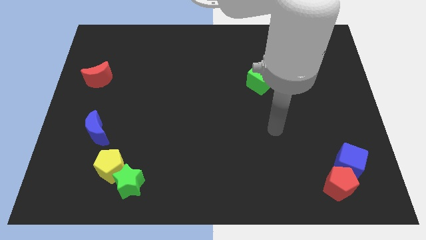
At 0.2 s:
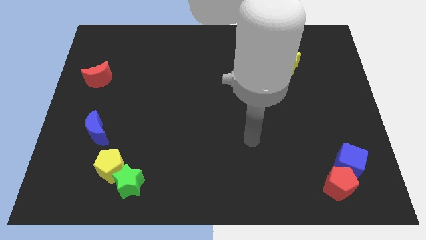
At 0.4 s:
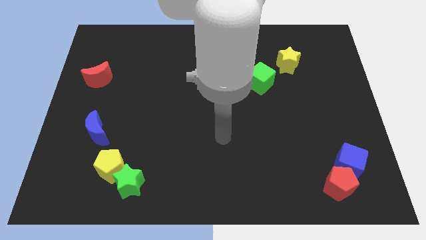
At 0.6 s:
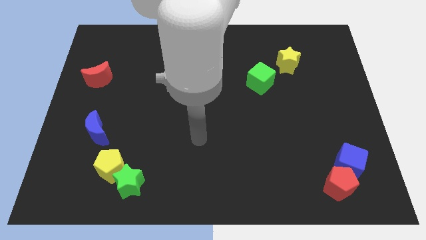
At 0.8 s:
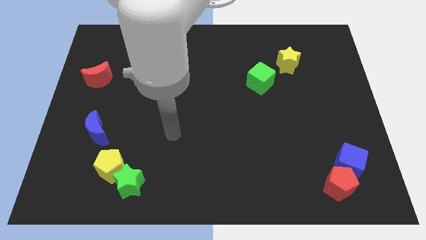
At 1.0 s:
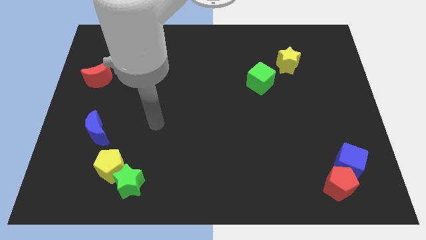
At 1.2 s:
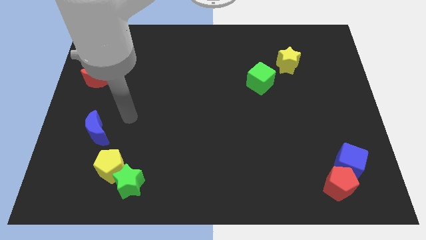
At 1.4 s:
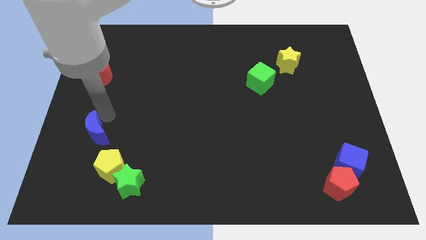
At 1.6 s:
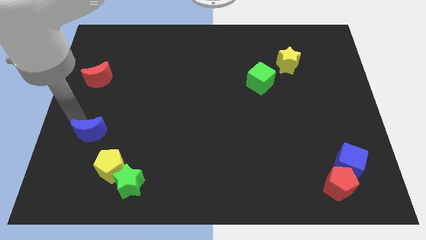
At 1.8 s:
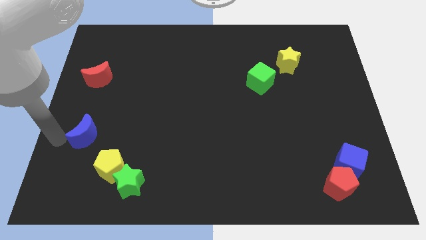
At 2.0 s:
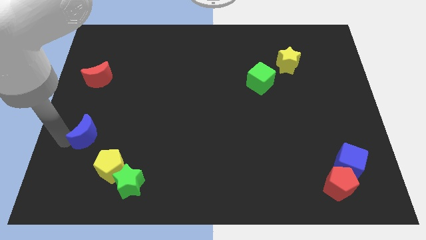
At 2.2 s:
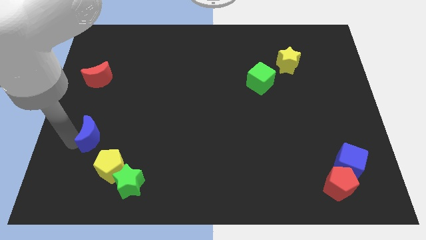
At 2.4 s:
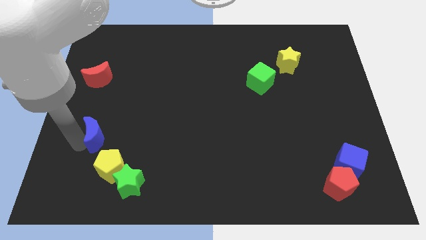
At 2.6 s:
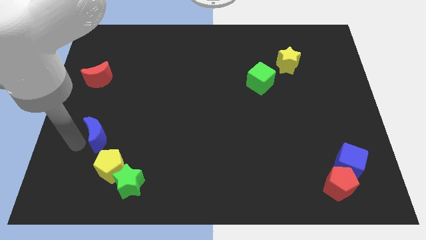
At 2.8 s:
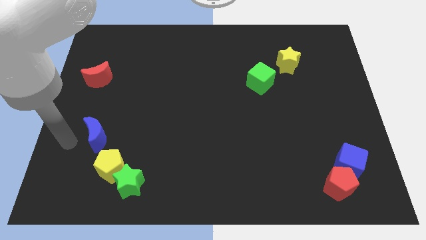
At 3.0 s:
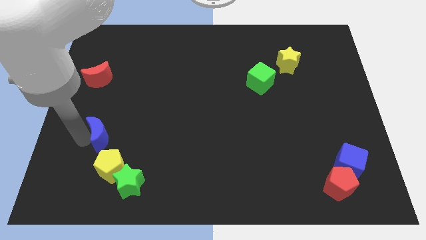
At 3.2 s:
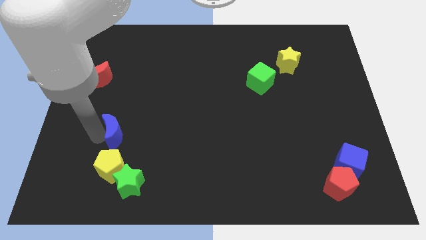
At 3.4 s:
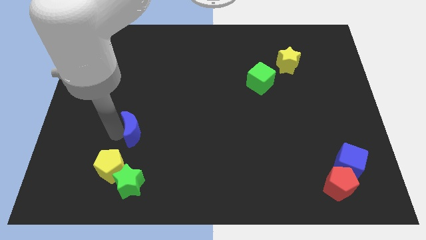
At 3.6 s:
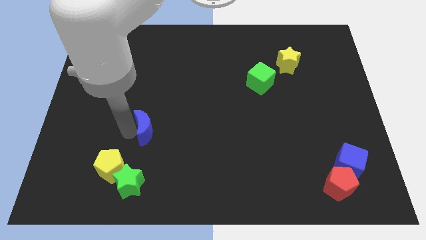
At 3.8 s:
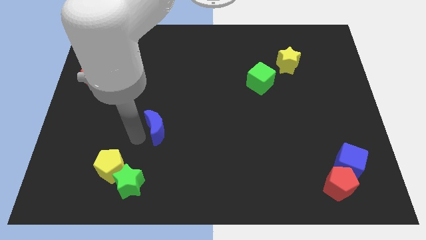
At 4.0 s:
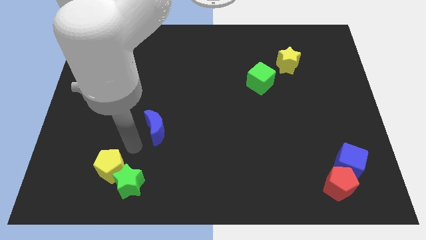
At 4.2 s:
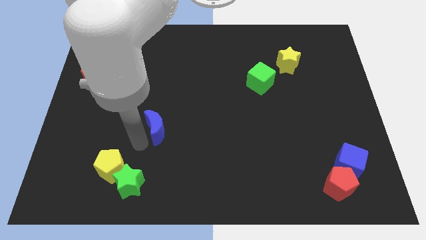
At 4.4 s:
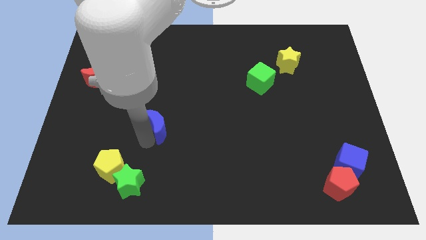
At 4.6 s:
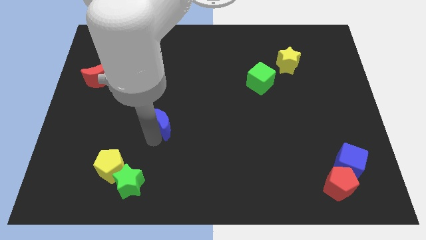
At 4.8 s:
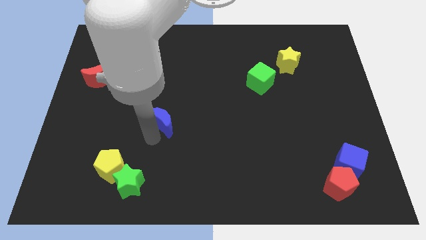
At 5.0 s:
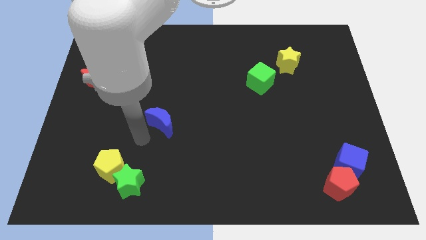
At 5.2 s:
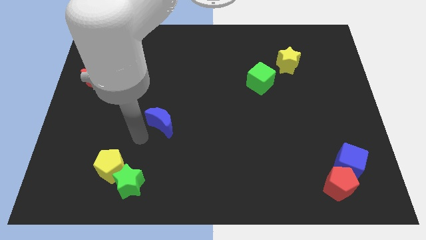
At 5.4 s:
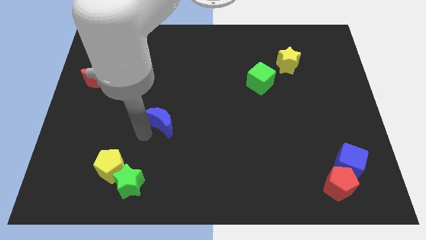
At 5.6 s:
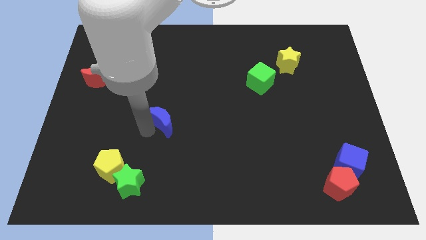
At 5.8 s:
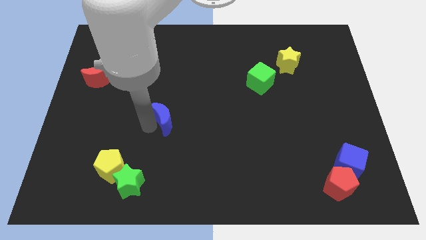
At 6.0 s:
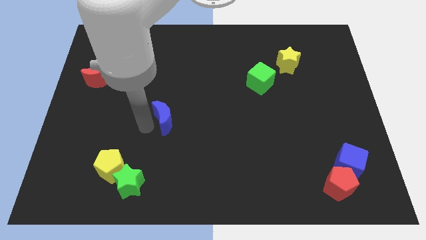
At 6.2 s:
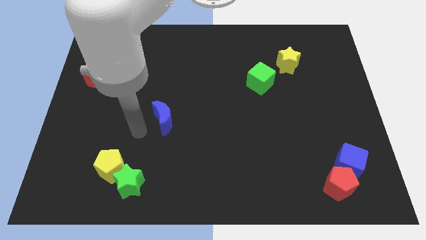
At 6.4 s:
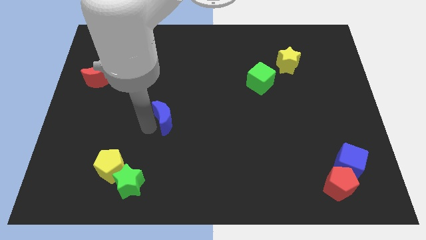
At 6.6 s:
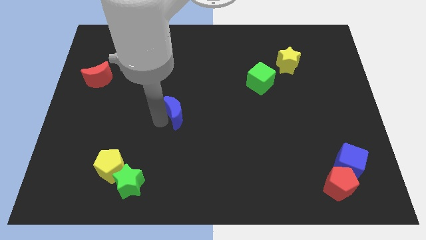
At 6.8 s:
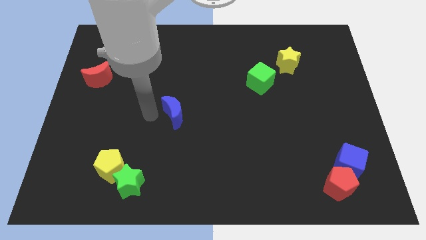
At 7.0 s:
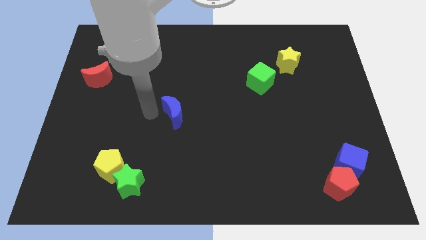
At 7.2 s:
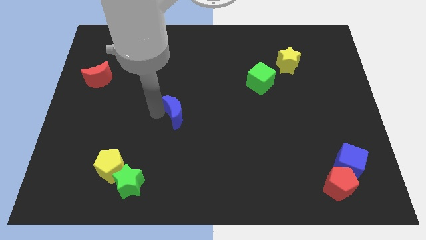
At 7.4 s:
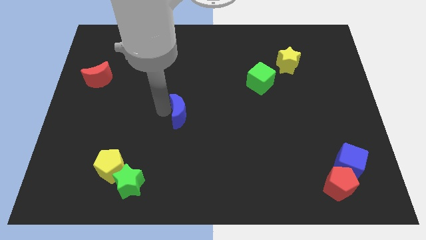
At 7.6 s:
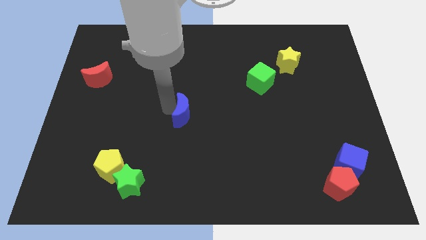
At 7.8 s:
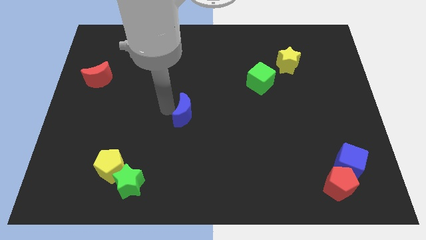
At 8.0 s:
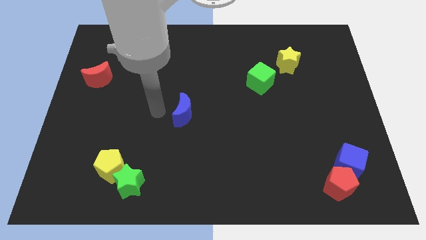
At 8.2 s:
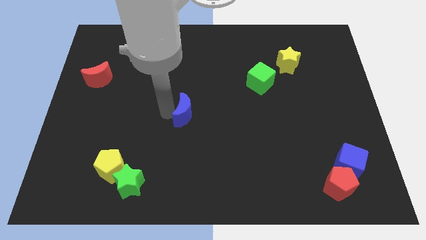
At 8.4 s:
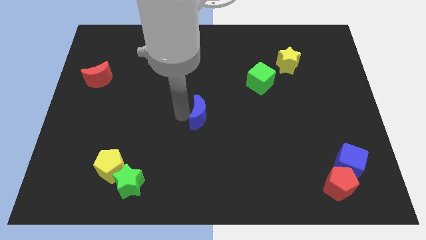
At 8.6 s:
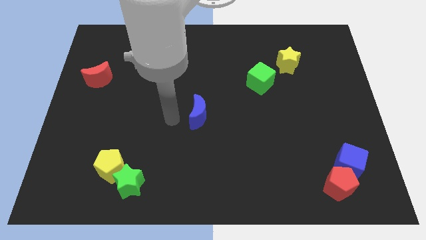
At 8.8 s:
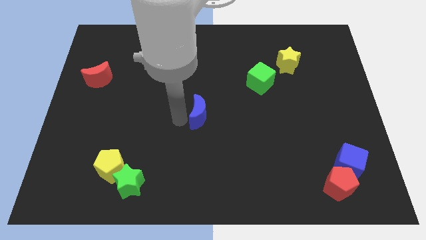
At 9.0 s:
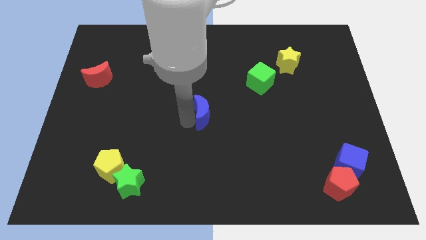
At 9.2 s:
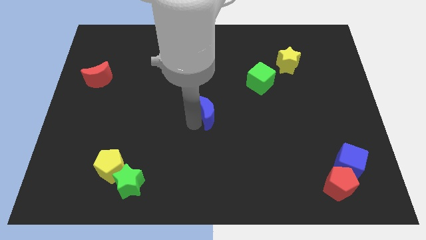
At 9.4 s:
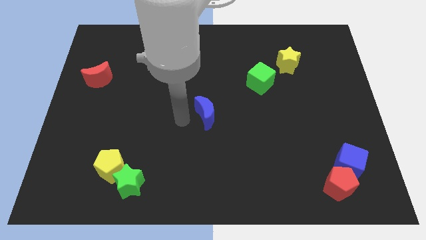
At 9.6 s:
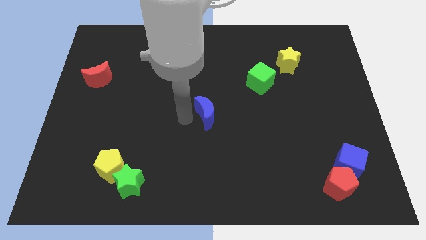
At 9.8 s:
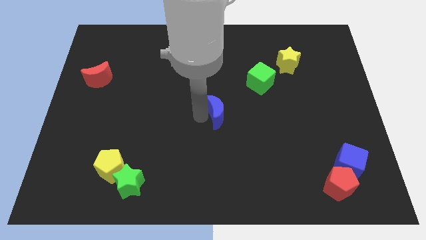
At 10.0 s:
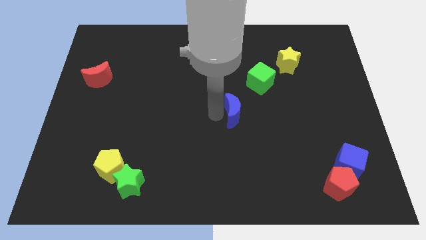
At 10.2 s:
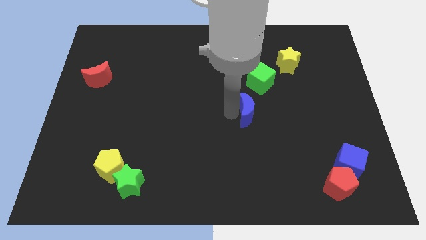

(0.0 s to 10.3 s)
slide the blue moon to the bottom side of the green cube

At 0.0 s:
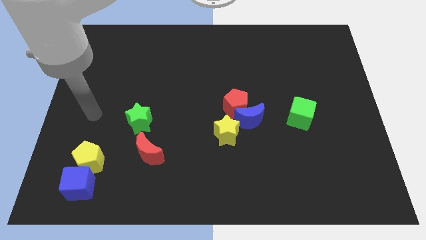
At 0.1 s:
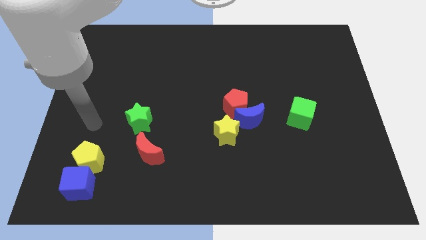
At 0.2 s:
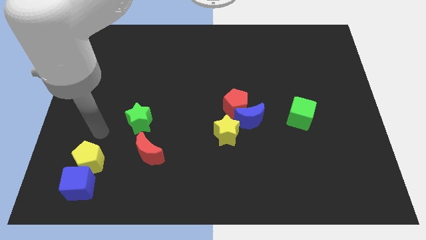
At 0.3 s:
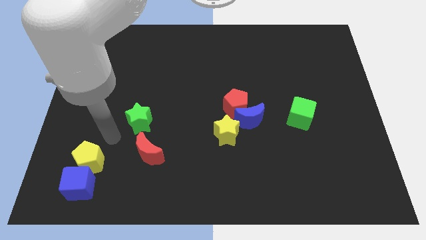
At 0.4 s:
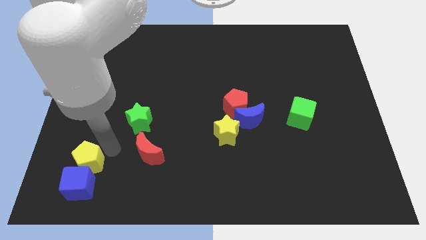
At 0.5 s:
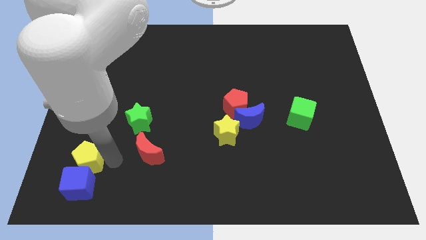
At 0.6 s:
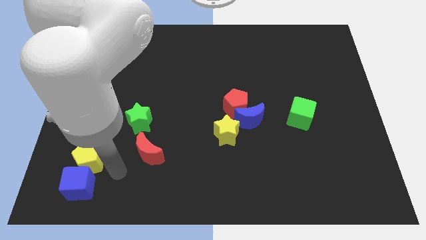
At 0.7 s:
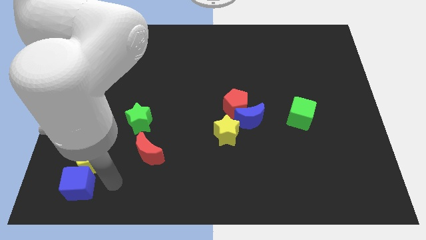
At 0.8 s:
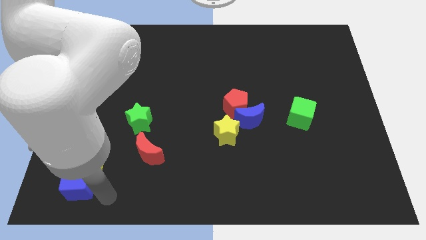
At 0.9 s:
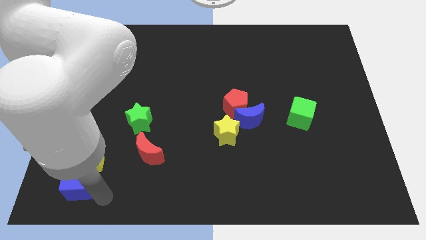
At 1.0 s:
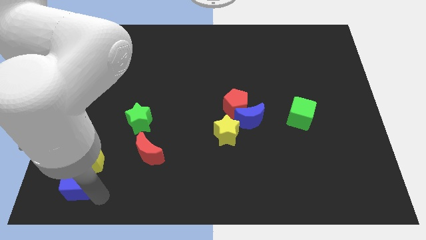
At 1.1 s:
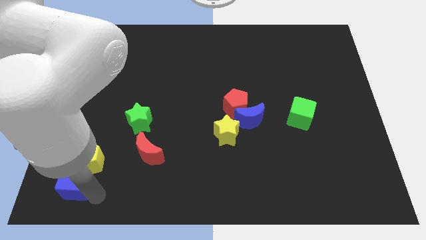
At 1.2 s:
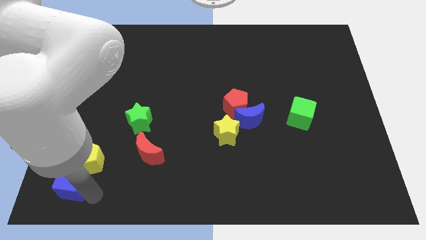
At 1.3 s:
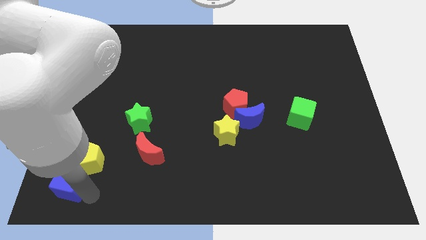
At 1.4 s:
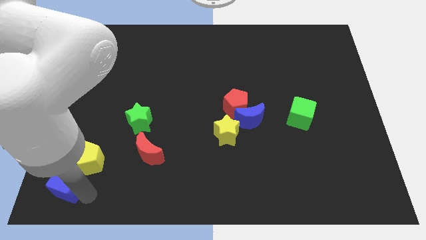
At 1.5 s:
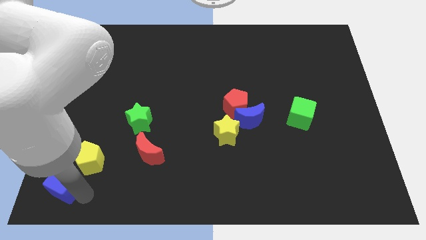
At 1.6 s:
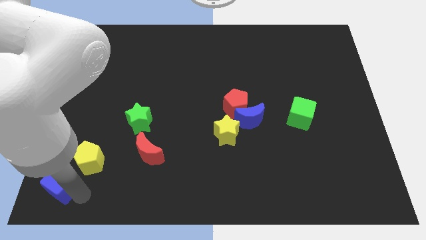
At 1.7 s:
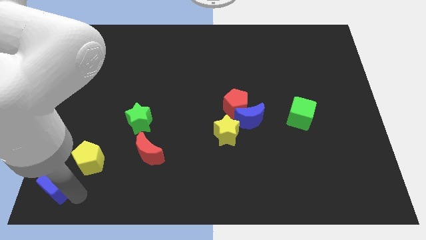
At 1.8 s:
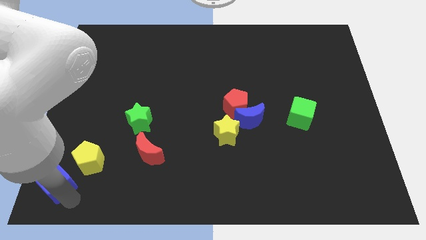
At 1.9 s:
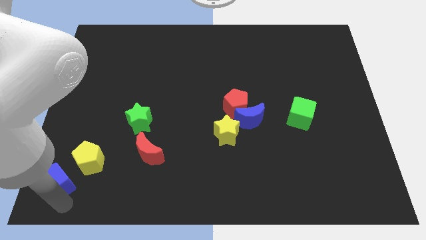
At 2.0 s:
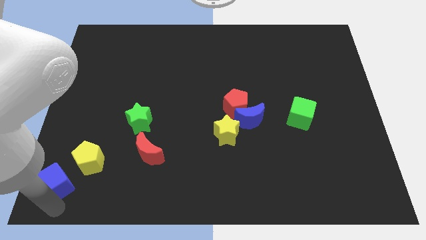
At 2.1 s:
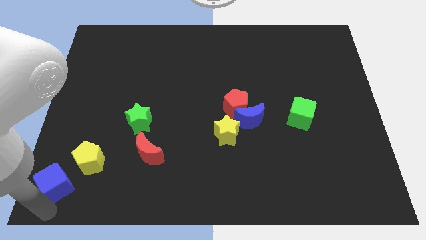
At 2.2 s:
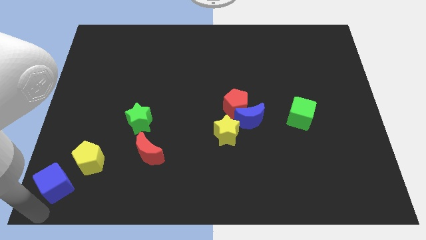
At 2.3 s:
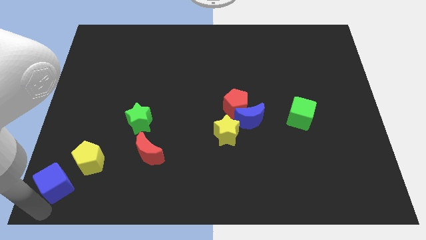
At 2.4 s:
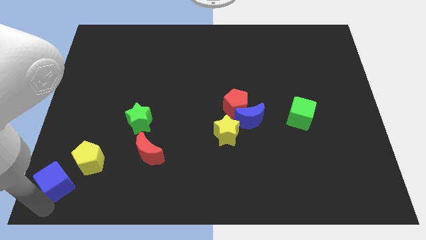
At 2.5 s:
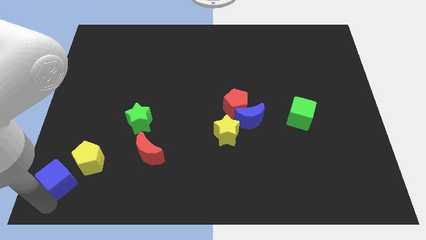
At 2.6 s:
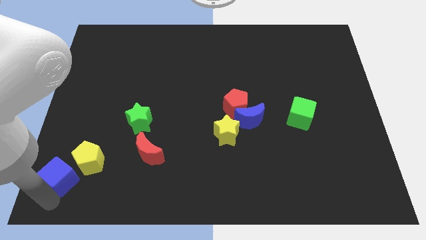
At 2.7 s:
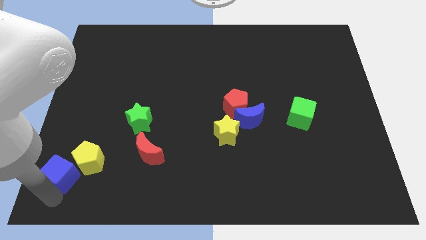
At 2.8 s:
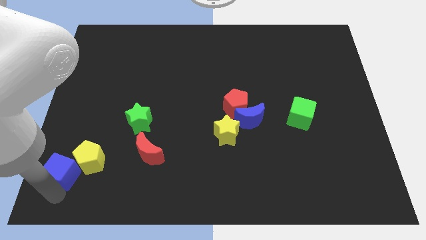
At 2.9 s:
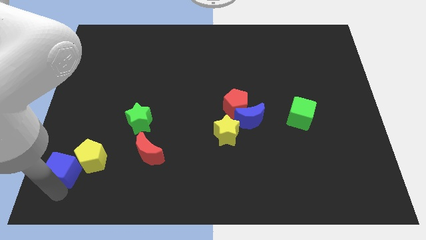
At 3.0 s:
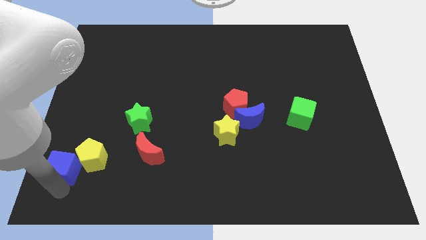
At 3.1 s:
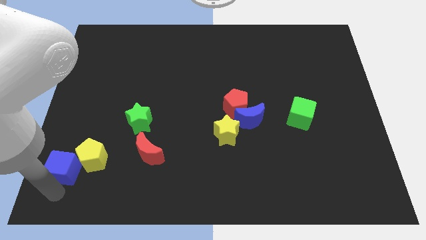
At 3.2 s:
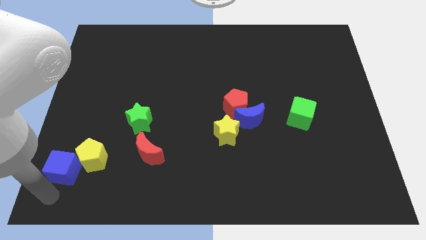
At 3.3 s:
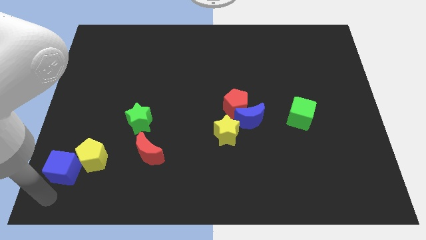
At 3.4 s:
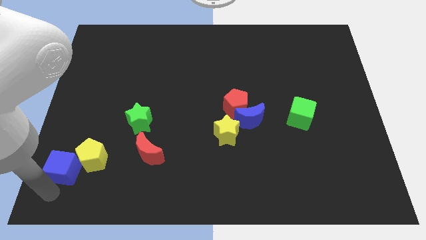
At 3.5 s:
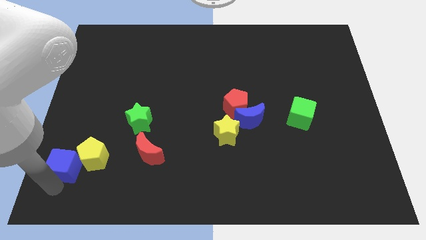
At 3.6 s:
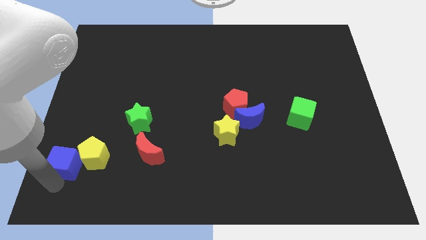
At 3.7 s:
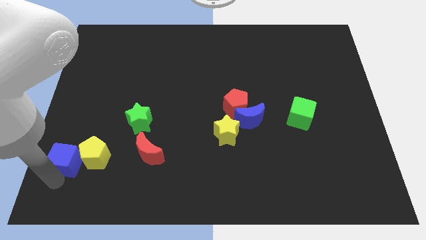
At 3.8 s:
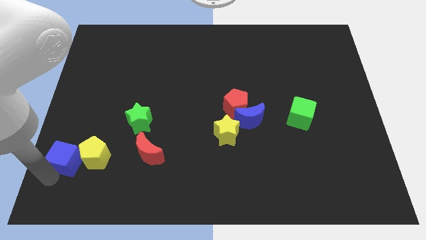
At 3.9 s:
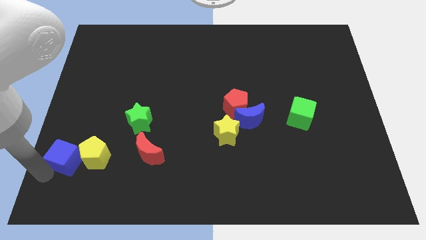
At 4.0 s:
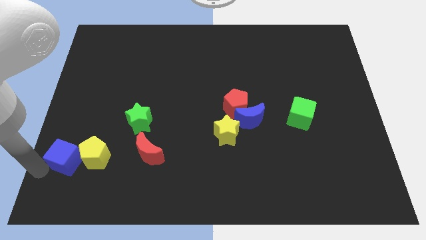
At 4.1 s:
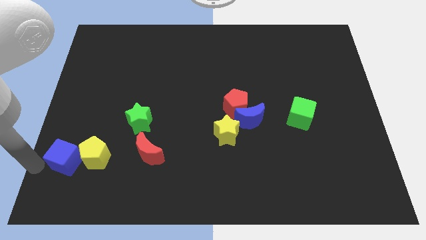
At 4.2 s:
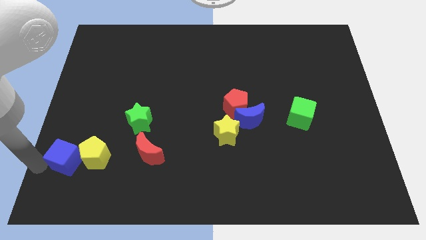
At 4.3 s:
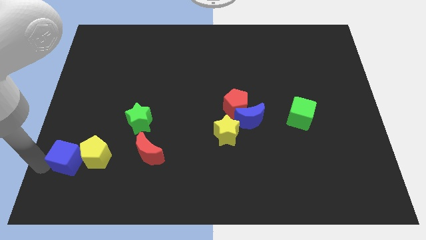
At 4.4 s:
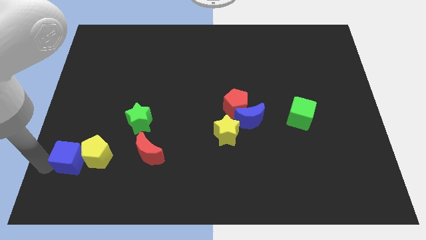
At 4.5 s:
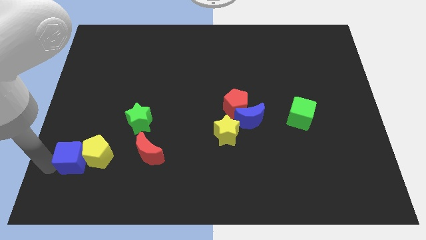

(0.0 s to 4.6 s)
put the blue cube left of the red moon
